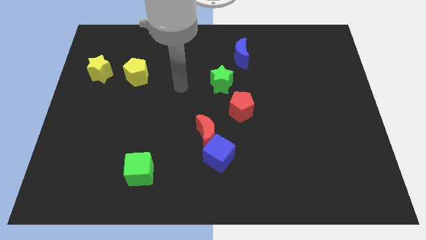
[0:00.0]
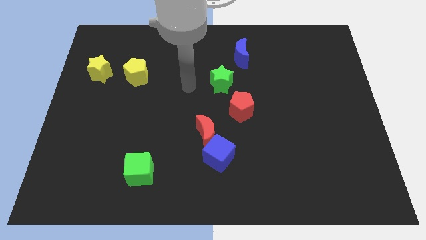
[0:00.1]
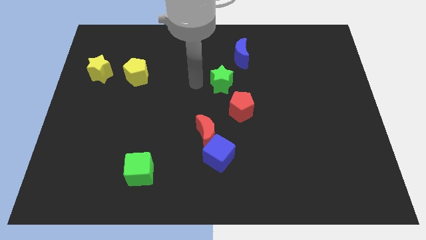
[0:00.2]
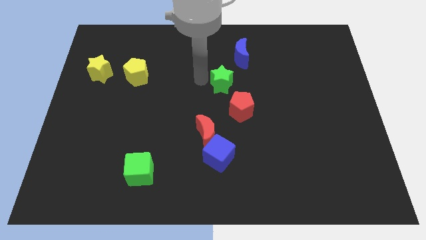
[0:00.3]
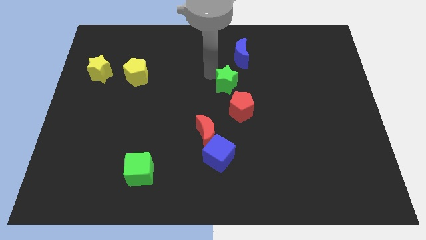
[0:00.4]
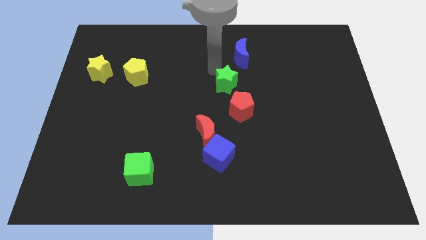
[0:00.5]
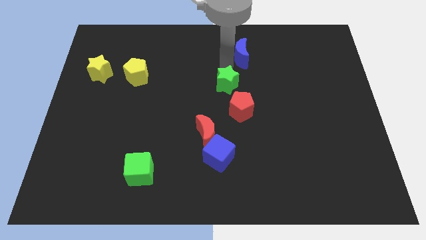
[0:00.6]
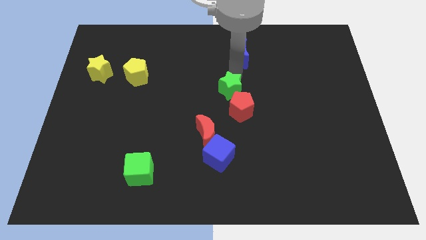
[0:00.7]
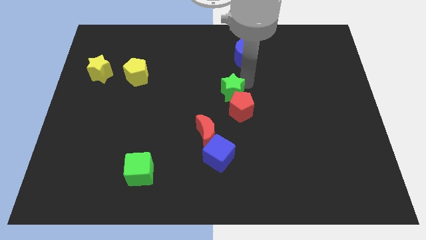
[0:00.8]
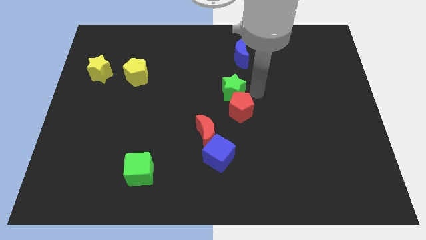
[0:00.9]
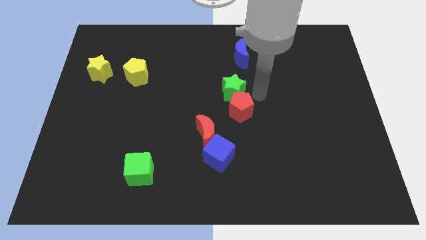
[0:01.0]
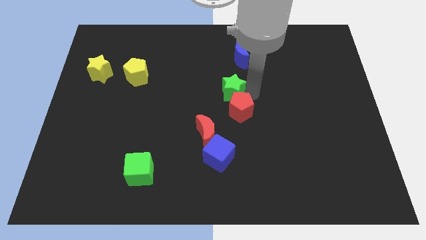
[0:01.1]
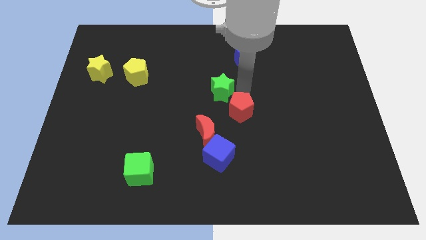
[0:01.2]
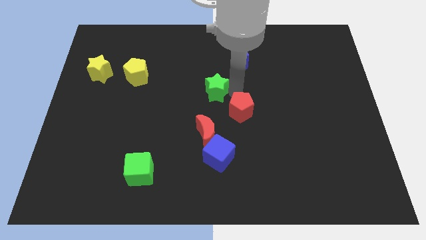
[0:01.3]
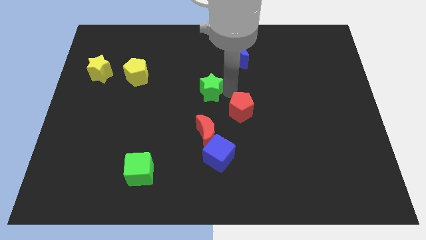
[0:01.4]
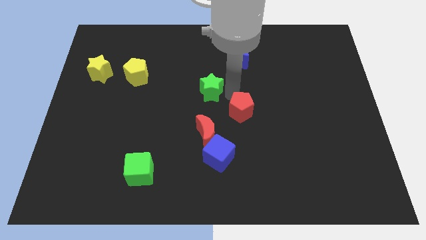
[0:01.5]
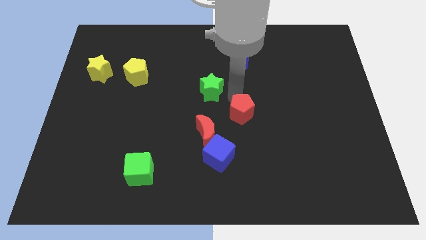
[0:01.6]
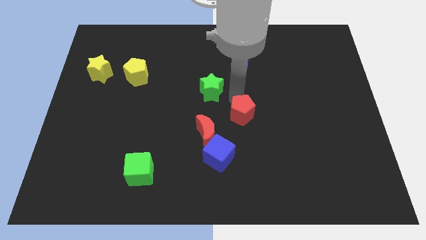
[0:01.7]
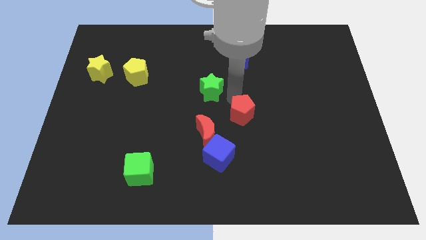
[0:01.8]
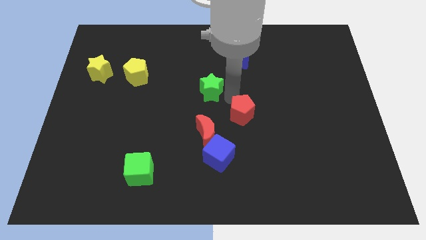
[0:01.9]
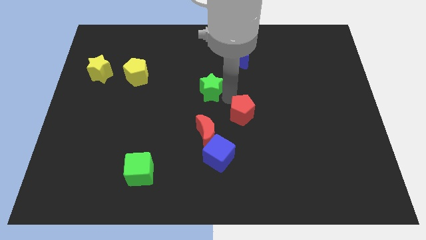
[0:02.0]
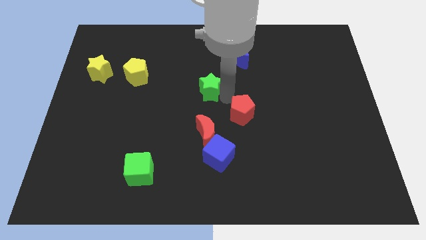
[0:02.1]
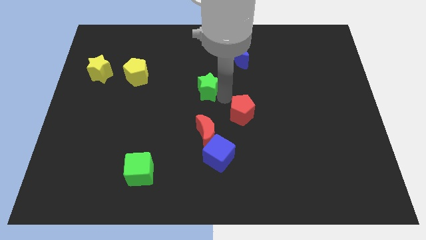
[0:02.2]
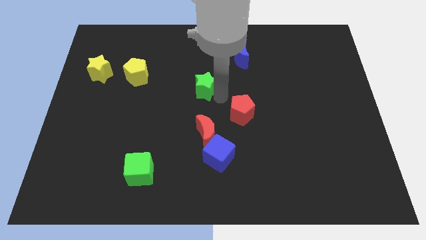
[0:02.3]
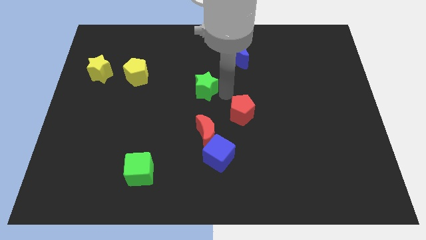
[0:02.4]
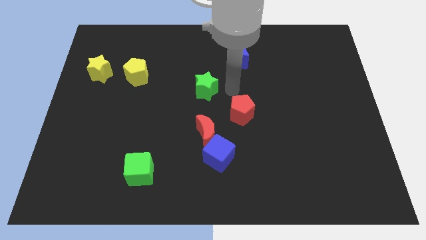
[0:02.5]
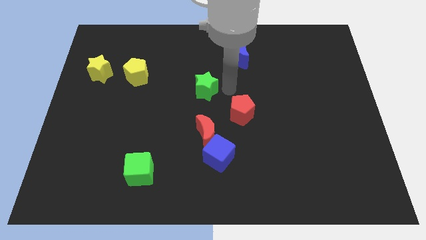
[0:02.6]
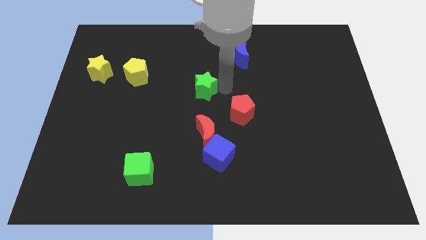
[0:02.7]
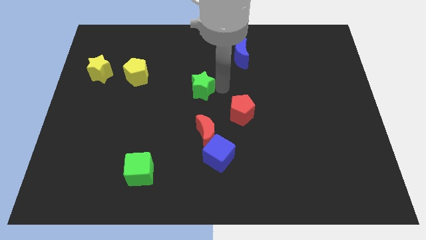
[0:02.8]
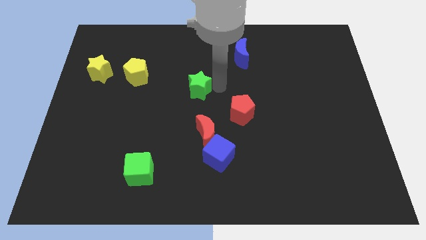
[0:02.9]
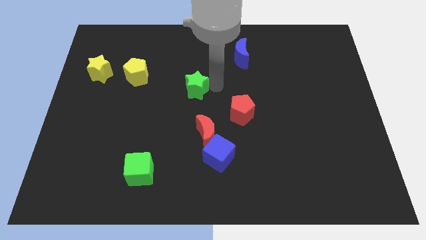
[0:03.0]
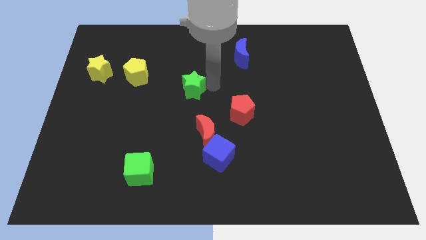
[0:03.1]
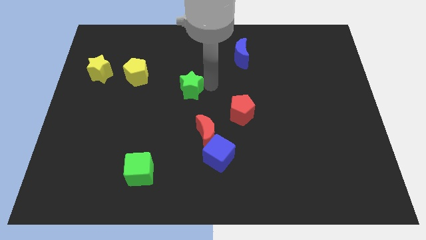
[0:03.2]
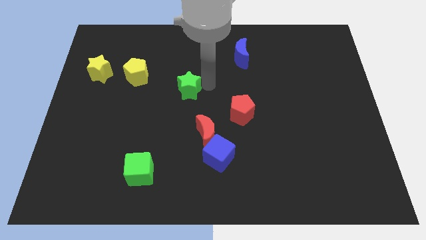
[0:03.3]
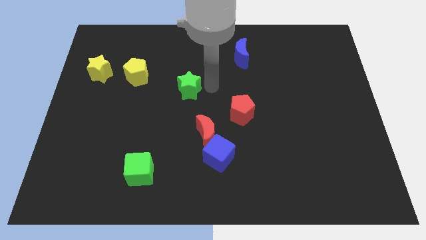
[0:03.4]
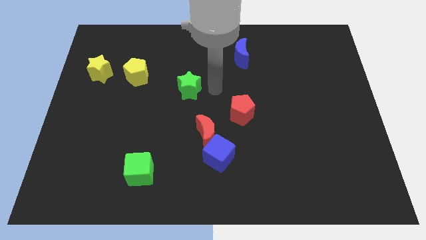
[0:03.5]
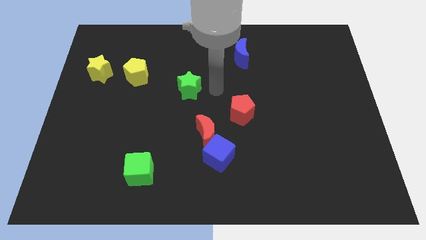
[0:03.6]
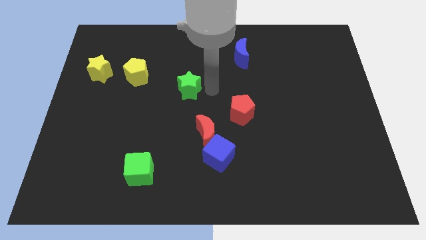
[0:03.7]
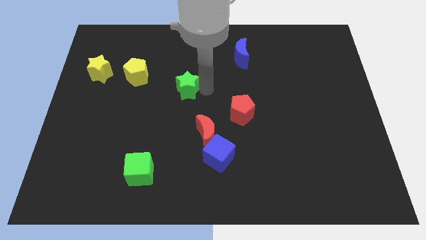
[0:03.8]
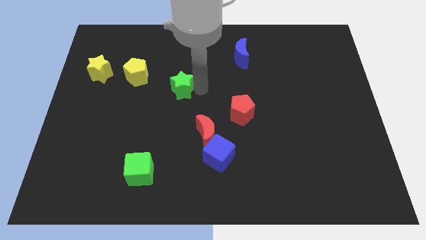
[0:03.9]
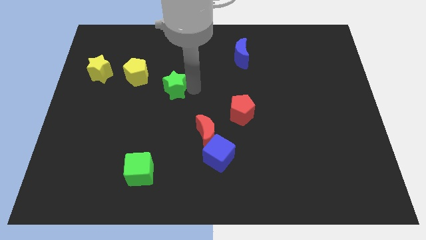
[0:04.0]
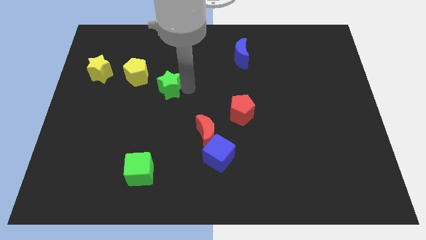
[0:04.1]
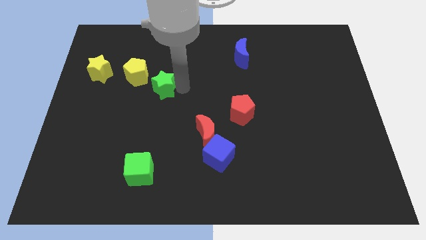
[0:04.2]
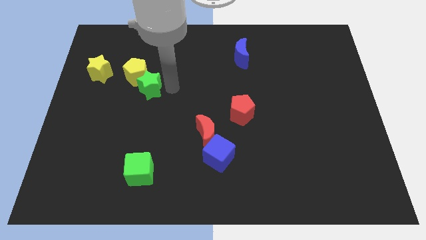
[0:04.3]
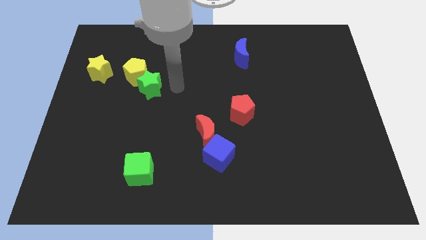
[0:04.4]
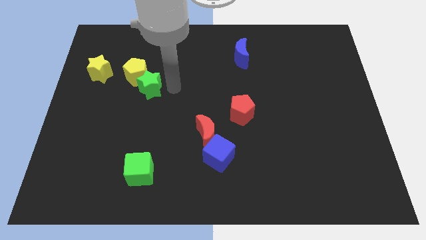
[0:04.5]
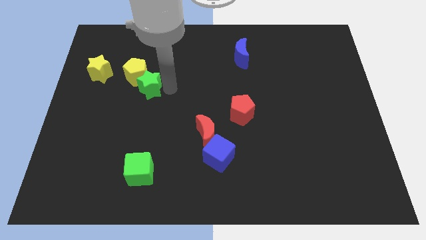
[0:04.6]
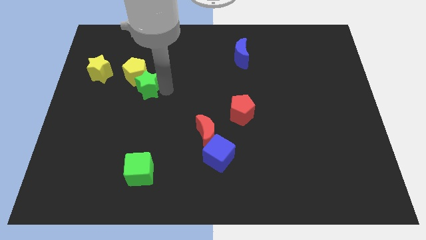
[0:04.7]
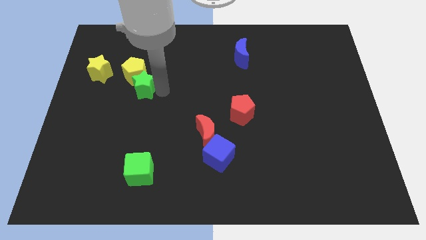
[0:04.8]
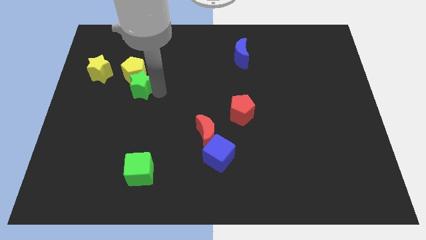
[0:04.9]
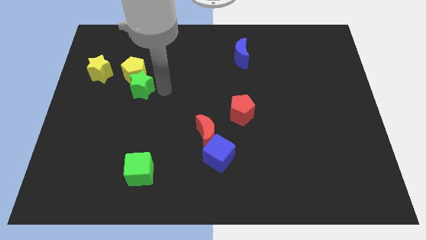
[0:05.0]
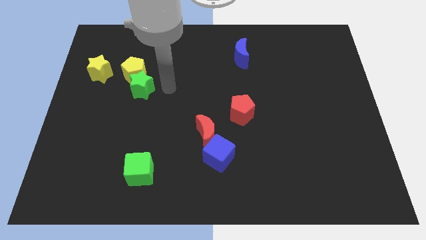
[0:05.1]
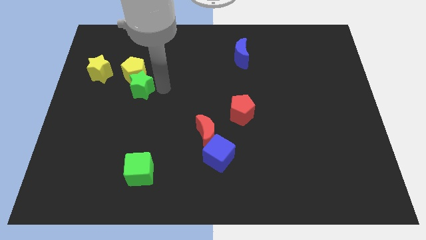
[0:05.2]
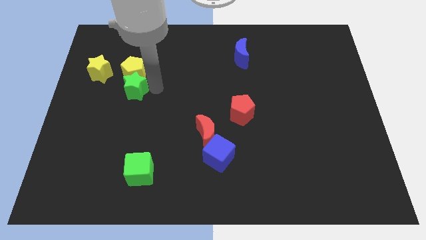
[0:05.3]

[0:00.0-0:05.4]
move the green star to the bottom right of the yellow star

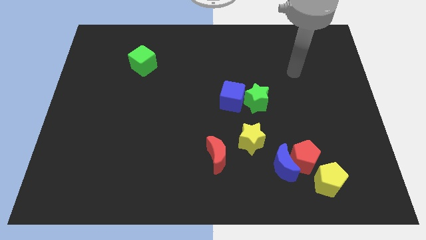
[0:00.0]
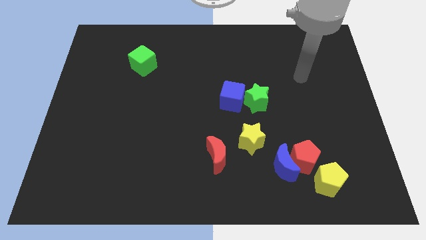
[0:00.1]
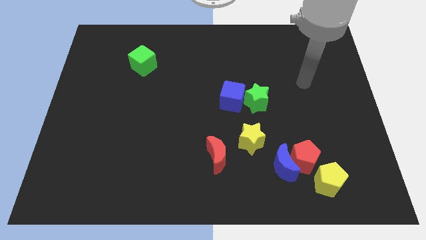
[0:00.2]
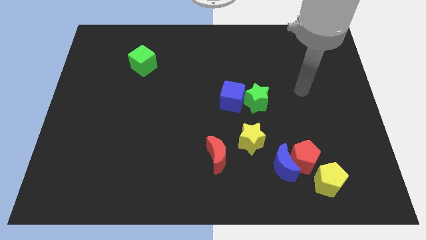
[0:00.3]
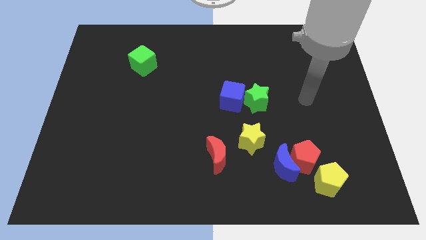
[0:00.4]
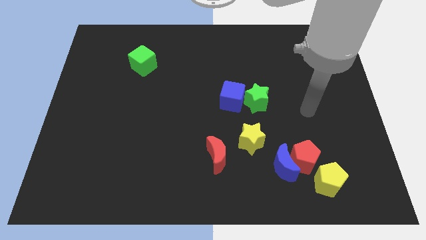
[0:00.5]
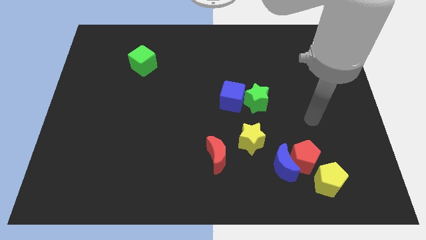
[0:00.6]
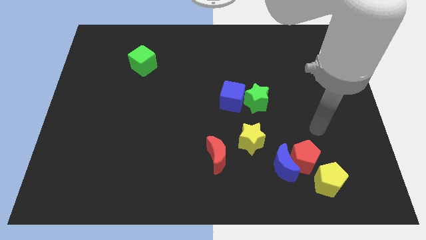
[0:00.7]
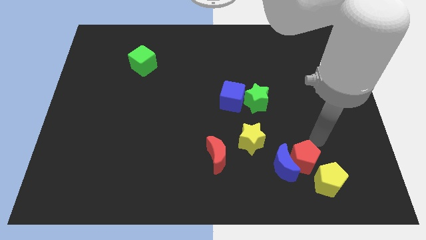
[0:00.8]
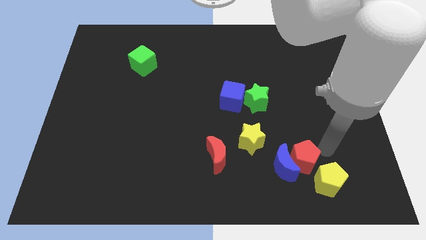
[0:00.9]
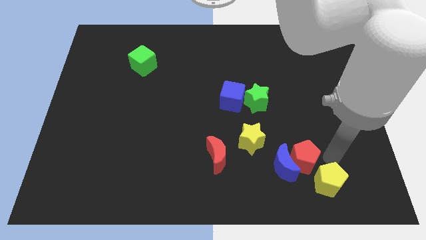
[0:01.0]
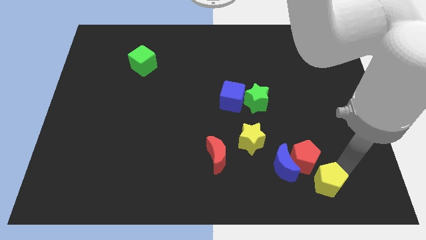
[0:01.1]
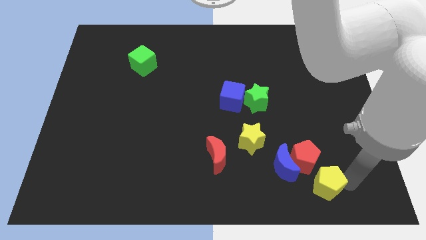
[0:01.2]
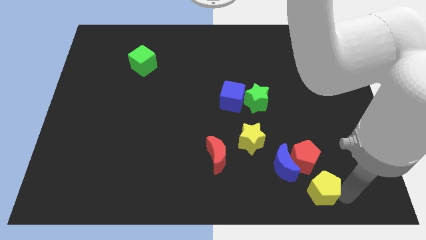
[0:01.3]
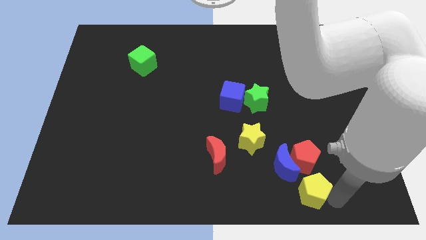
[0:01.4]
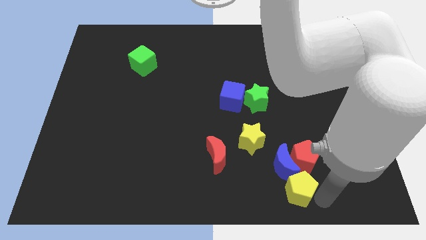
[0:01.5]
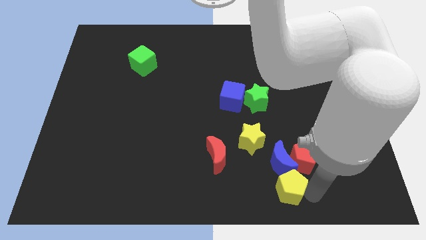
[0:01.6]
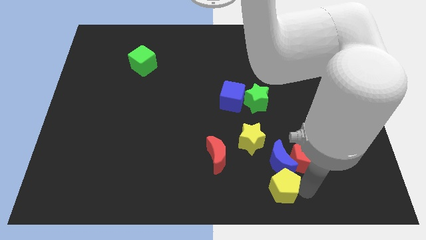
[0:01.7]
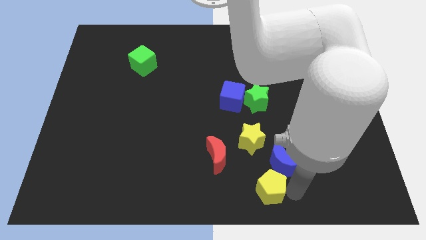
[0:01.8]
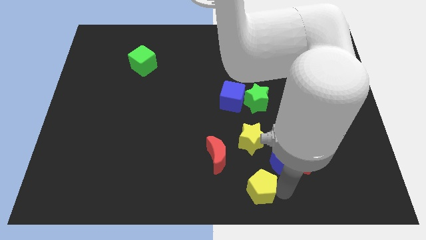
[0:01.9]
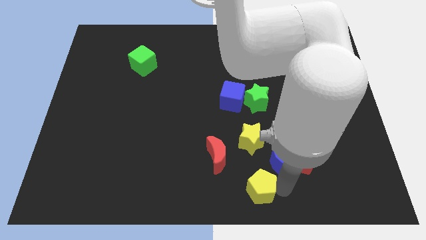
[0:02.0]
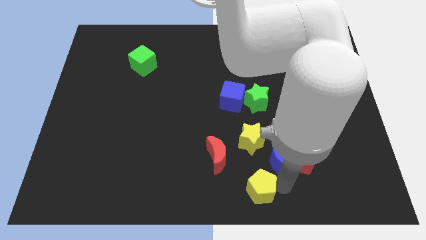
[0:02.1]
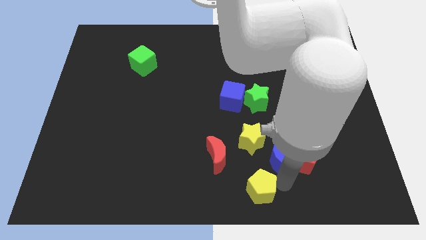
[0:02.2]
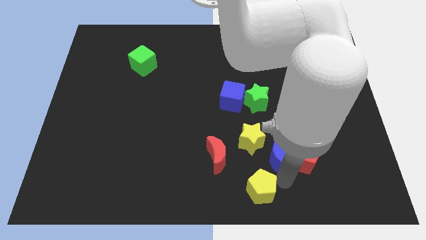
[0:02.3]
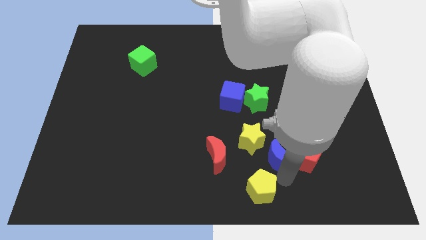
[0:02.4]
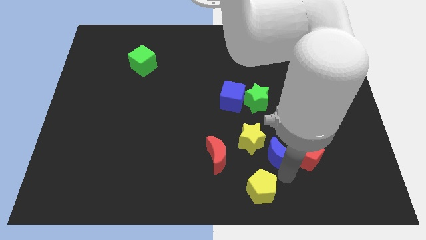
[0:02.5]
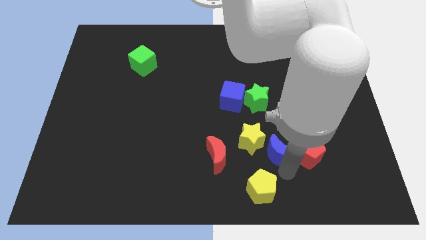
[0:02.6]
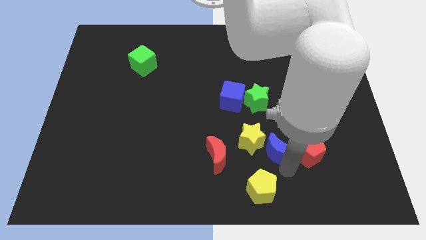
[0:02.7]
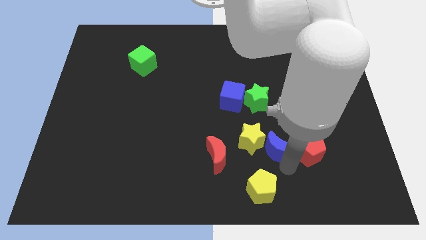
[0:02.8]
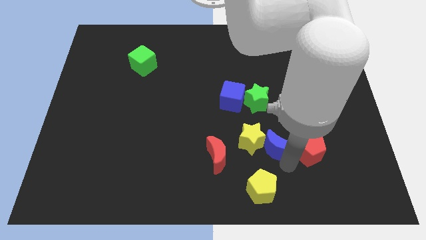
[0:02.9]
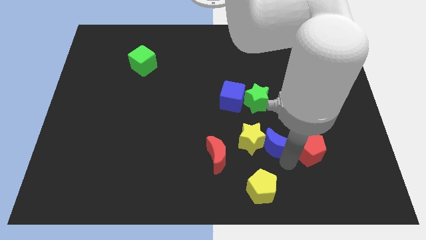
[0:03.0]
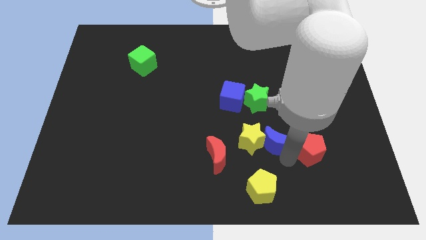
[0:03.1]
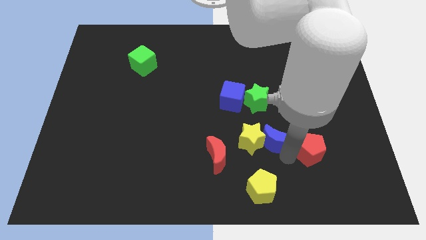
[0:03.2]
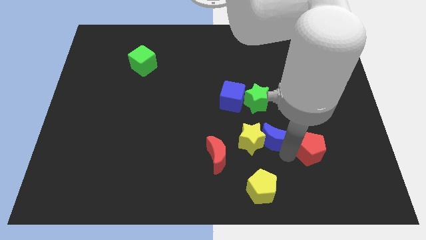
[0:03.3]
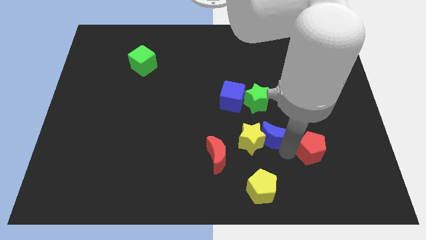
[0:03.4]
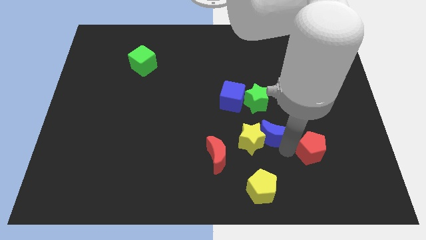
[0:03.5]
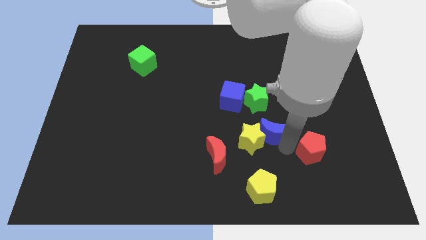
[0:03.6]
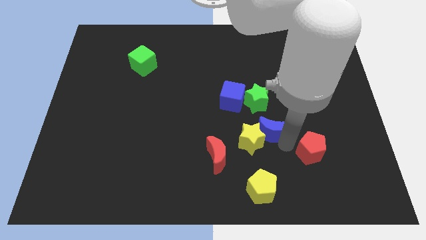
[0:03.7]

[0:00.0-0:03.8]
move the blue moon diagonally down and to the right of the blue cube
